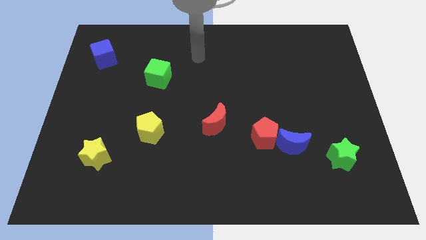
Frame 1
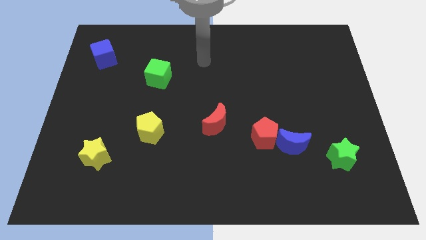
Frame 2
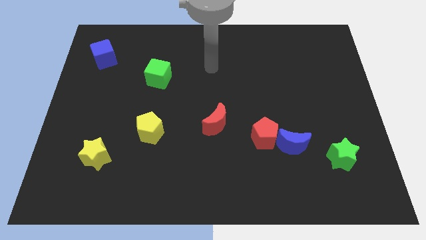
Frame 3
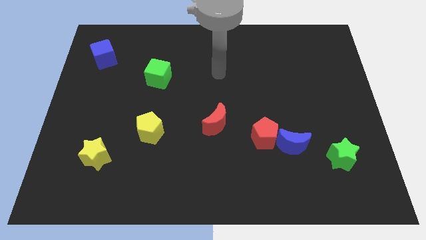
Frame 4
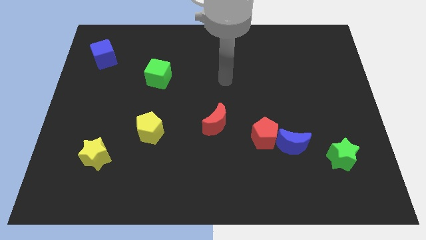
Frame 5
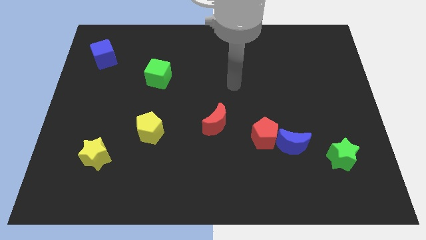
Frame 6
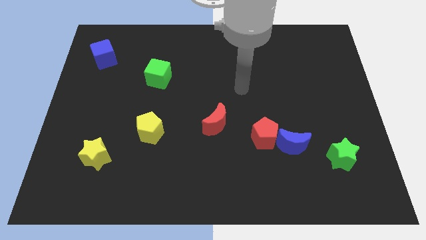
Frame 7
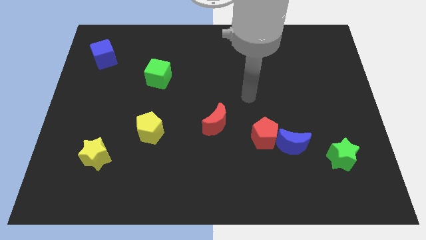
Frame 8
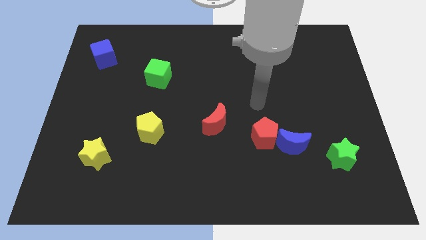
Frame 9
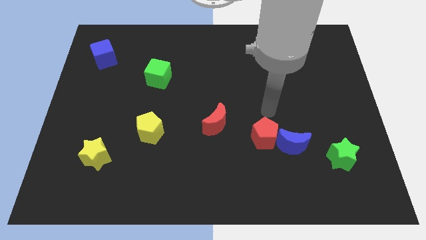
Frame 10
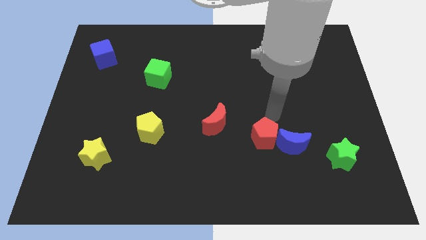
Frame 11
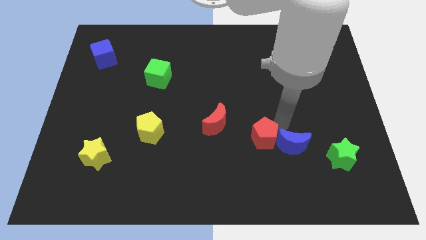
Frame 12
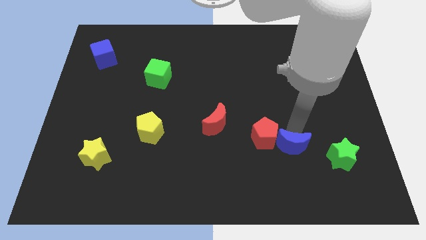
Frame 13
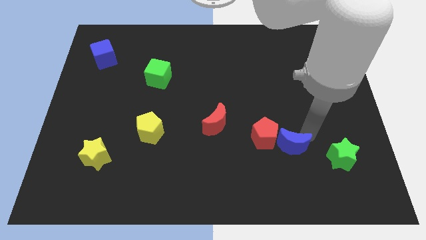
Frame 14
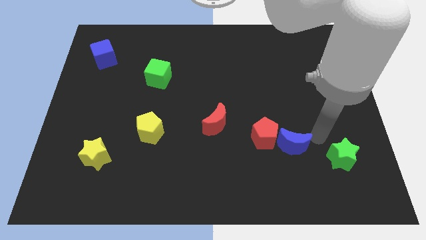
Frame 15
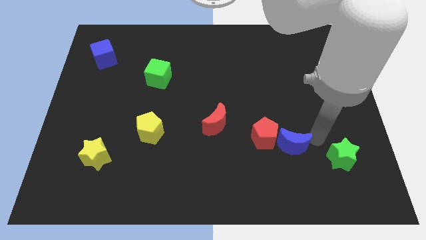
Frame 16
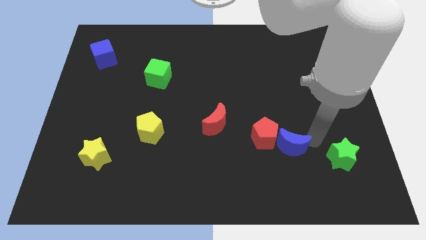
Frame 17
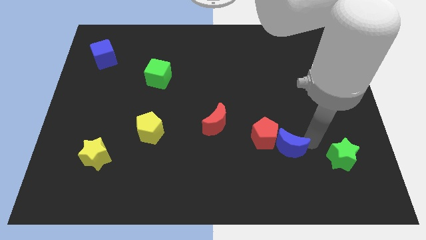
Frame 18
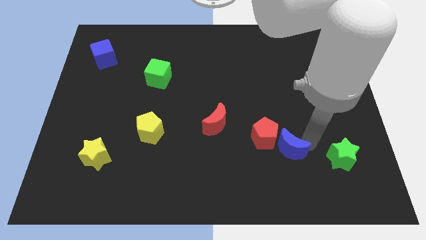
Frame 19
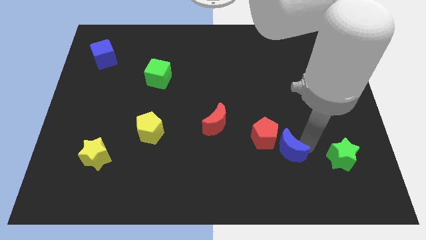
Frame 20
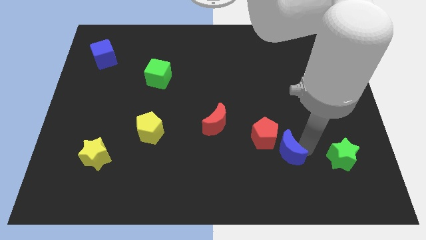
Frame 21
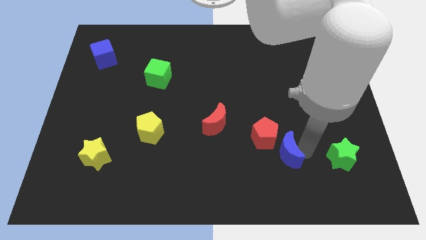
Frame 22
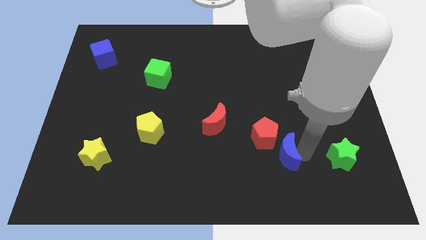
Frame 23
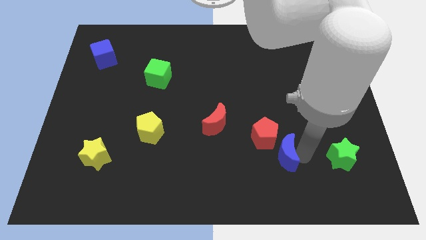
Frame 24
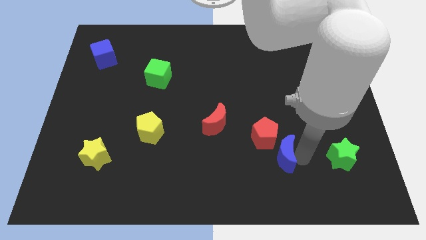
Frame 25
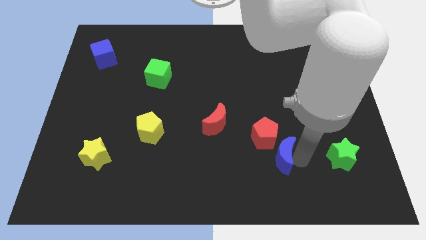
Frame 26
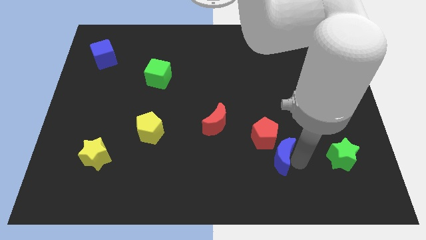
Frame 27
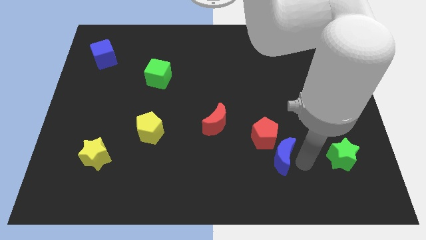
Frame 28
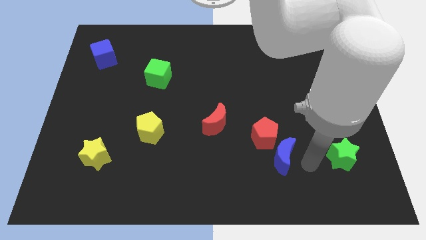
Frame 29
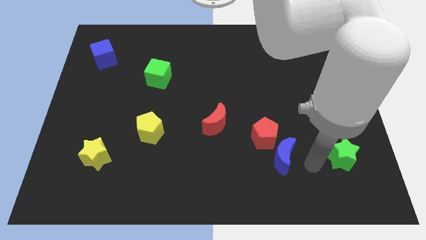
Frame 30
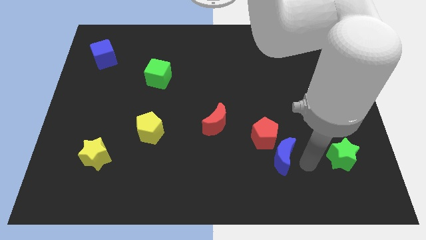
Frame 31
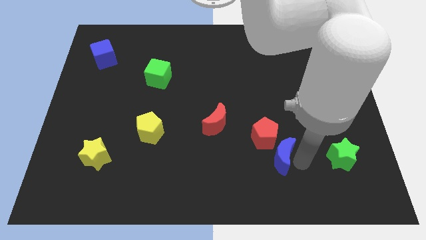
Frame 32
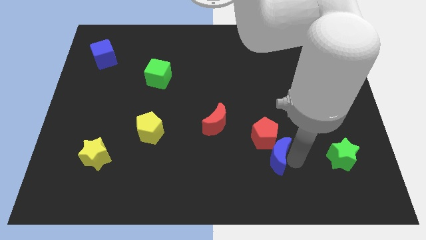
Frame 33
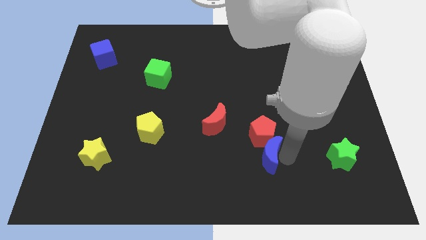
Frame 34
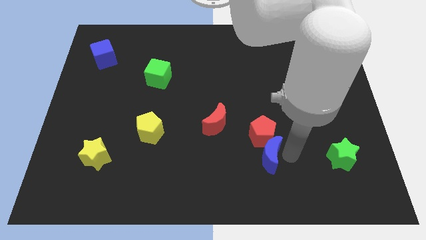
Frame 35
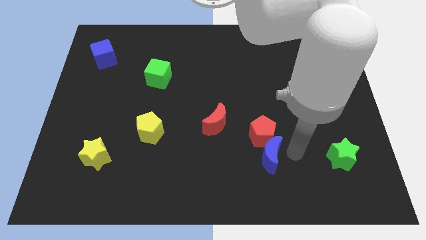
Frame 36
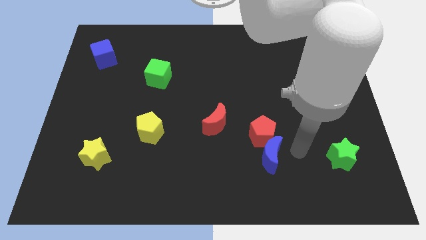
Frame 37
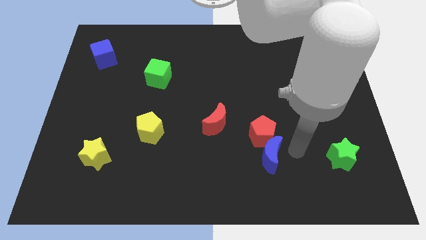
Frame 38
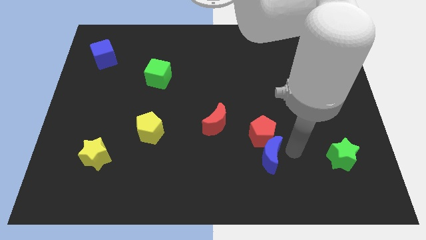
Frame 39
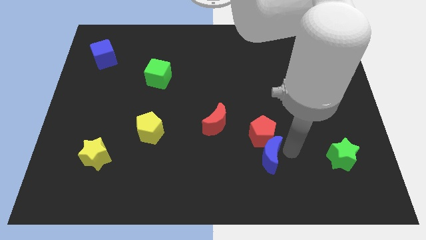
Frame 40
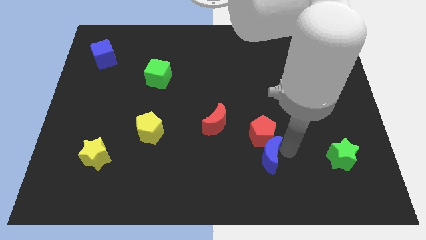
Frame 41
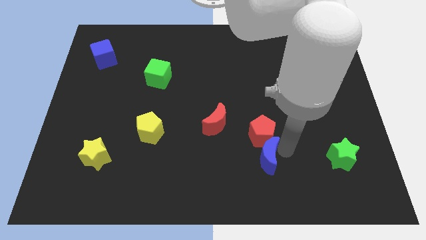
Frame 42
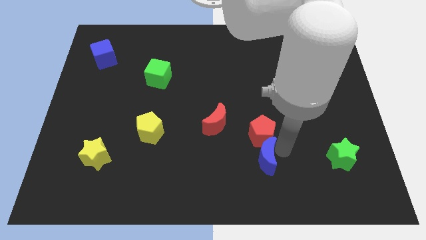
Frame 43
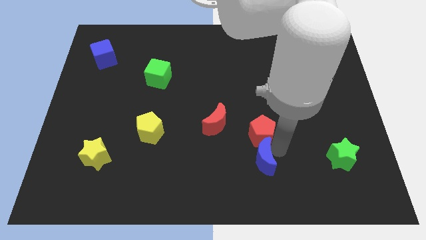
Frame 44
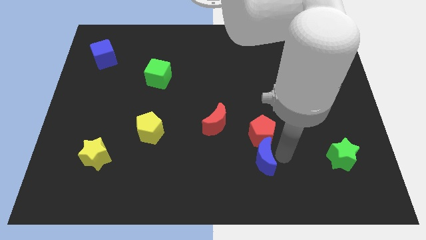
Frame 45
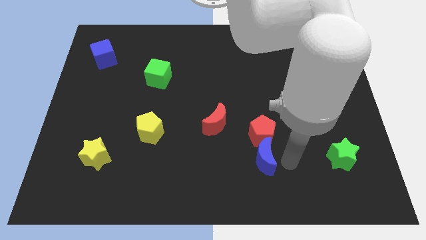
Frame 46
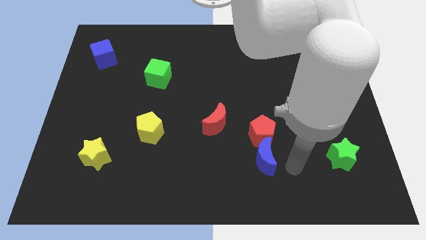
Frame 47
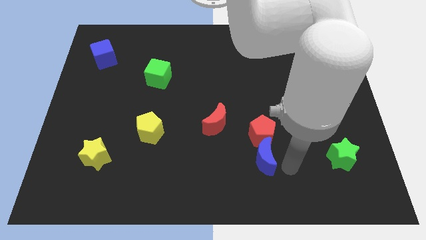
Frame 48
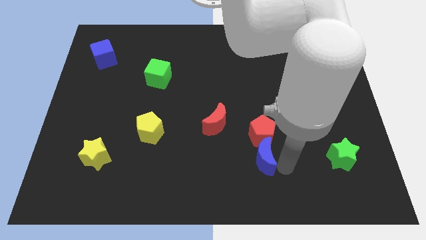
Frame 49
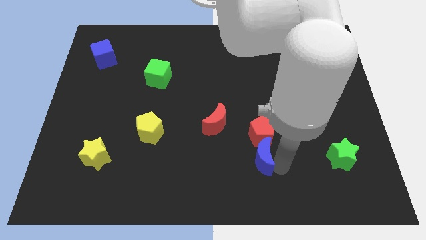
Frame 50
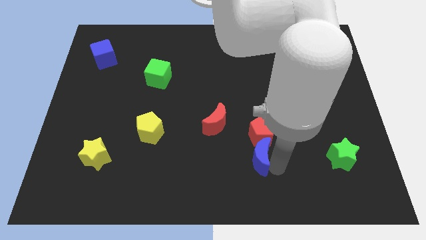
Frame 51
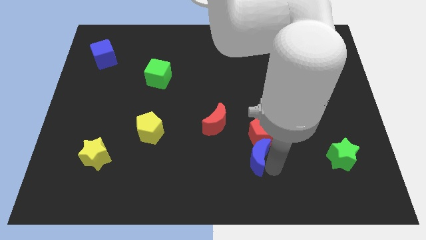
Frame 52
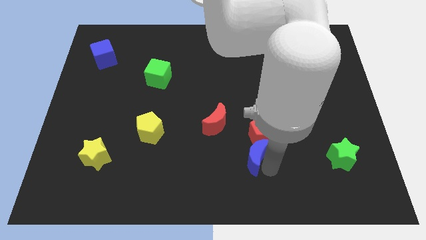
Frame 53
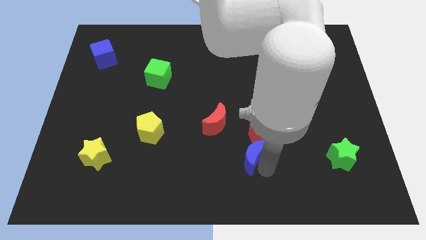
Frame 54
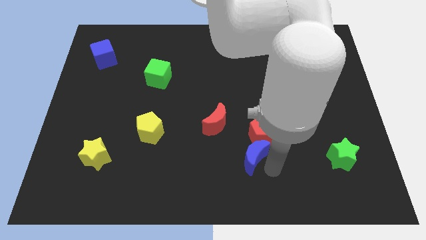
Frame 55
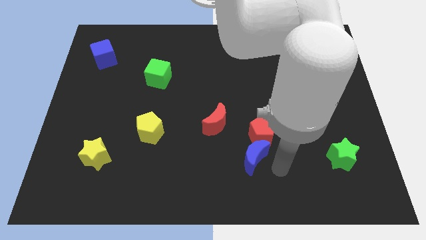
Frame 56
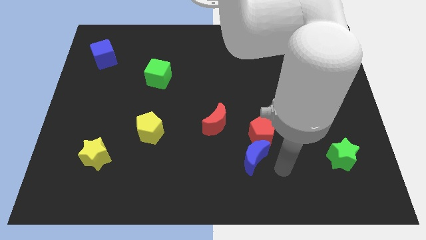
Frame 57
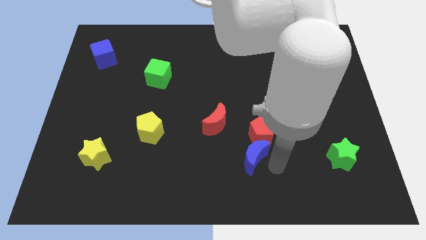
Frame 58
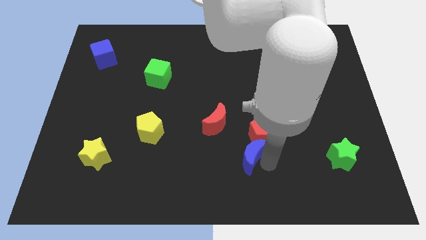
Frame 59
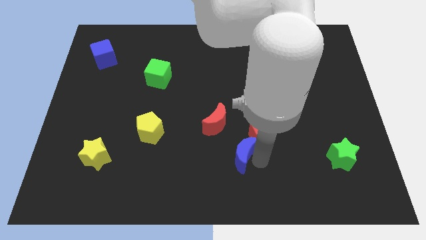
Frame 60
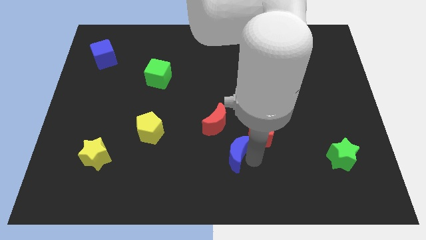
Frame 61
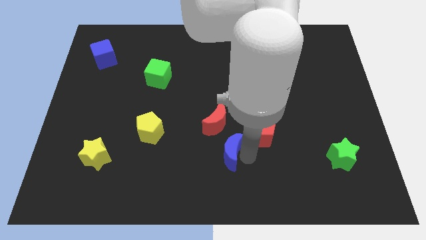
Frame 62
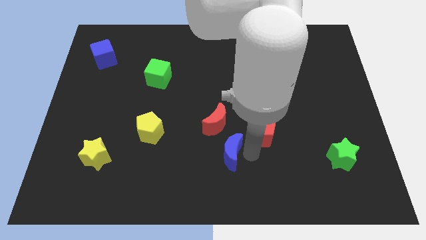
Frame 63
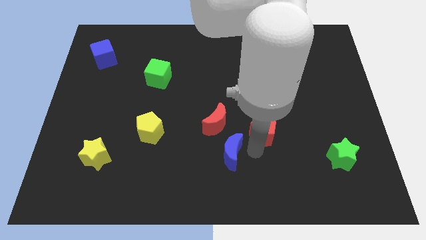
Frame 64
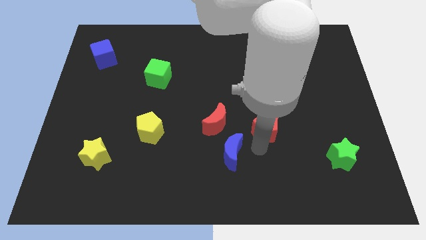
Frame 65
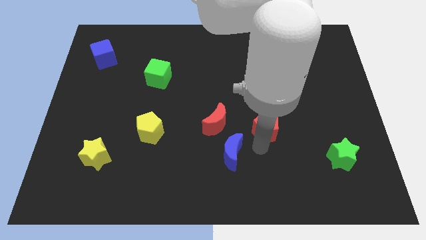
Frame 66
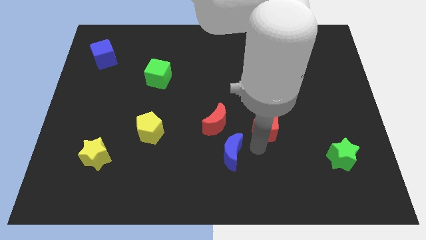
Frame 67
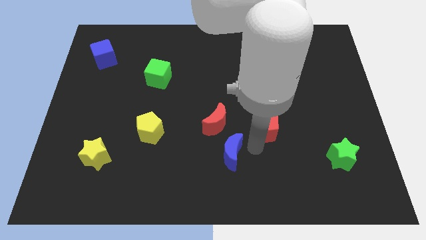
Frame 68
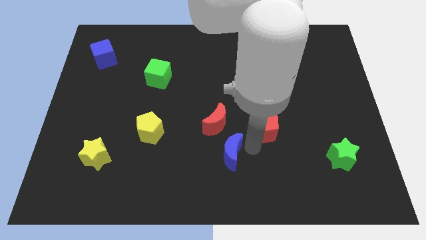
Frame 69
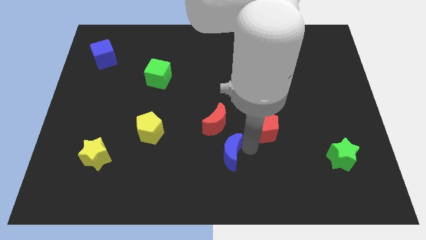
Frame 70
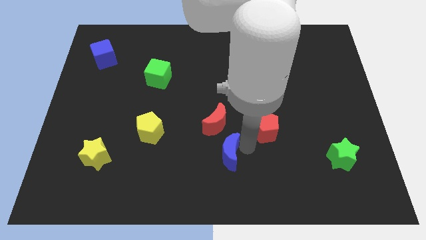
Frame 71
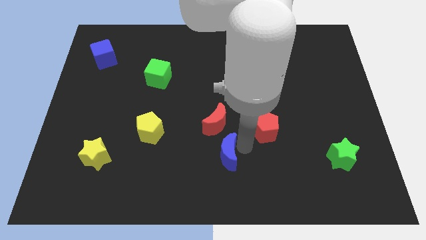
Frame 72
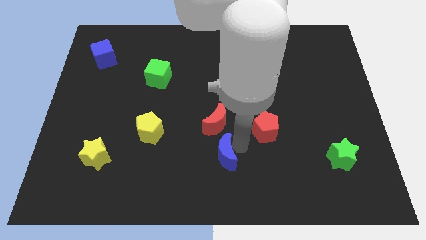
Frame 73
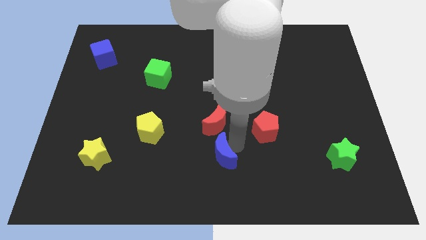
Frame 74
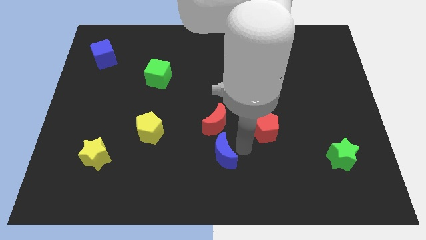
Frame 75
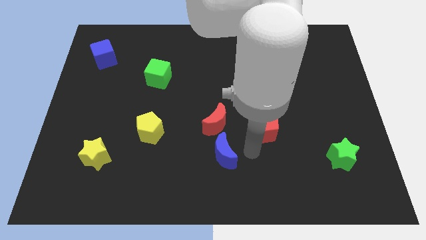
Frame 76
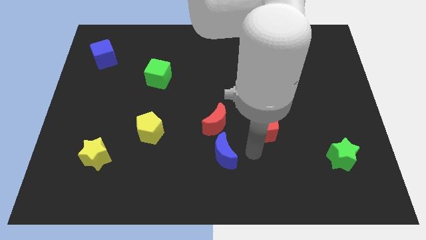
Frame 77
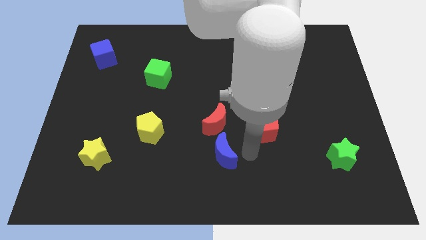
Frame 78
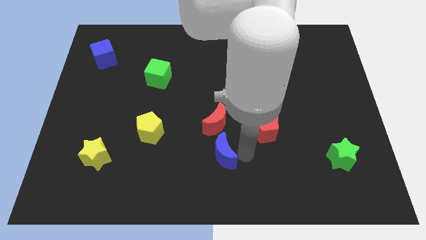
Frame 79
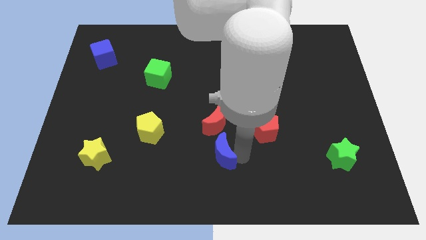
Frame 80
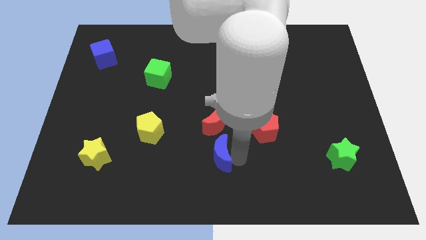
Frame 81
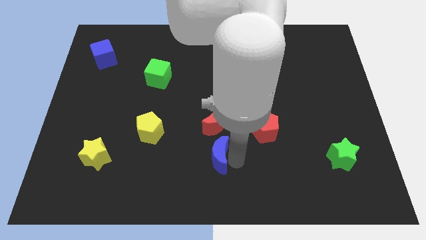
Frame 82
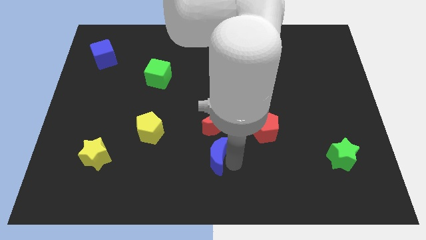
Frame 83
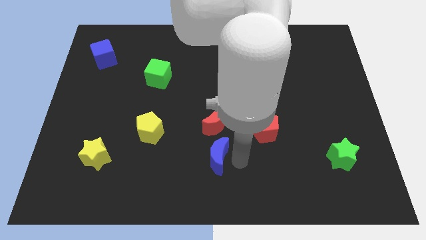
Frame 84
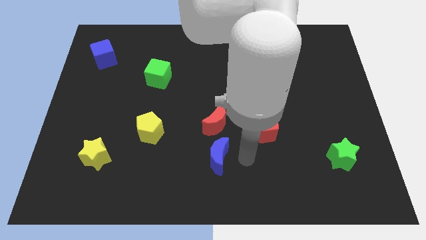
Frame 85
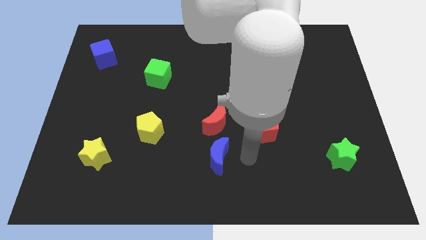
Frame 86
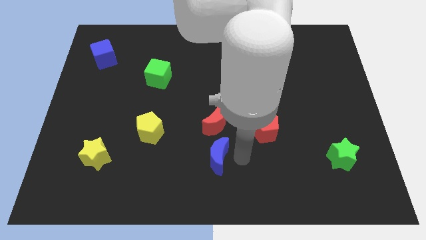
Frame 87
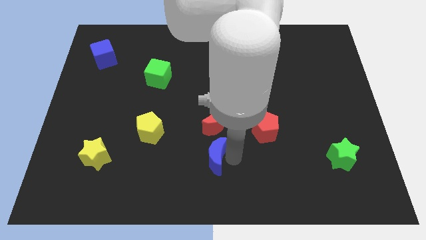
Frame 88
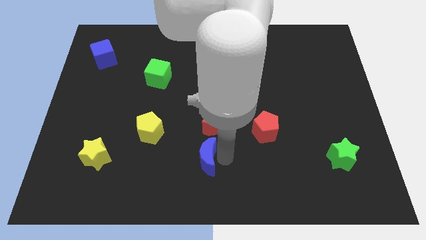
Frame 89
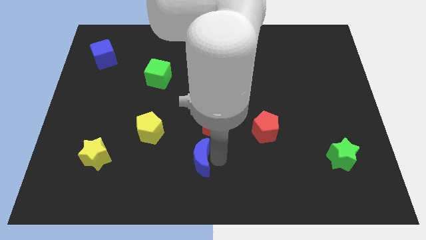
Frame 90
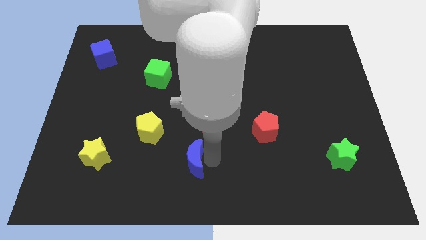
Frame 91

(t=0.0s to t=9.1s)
slide the blue moon to the left
